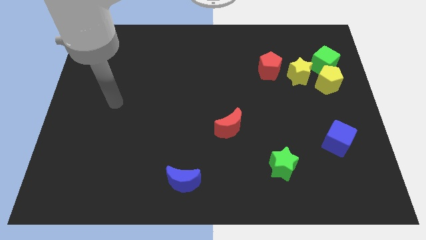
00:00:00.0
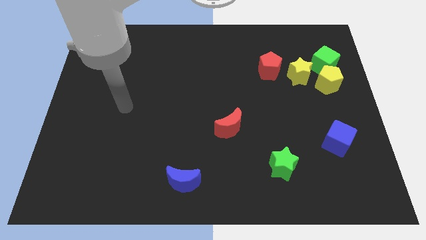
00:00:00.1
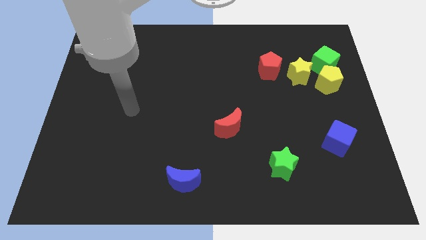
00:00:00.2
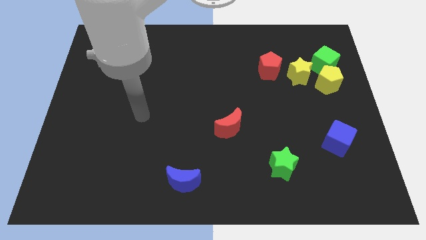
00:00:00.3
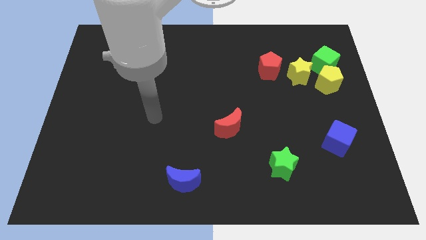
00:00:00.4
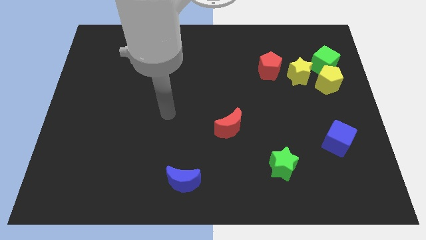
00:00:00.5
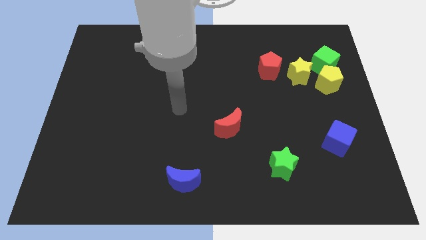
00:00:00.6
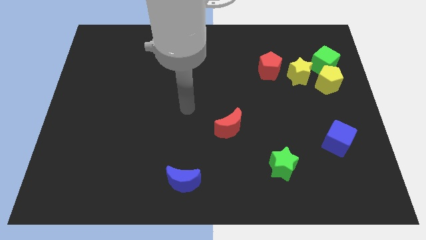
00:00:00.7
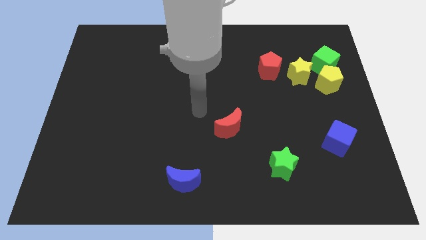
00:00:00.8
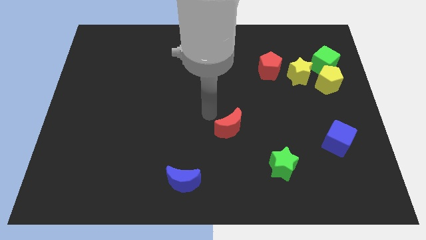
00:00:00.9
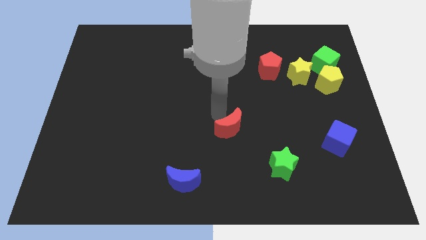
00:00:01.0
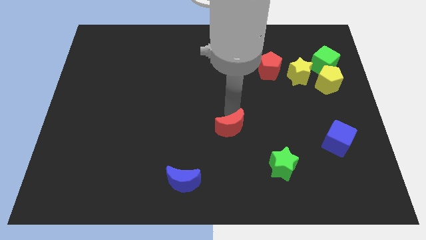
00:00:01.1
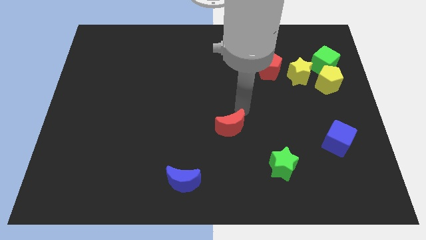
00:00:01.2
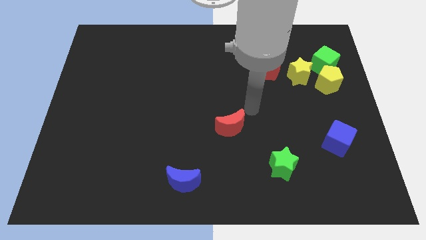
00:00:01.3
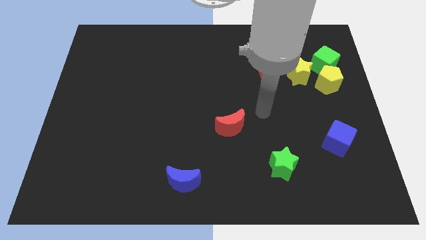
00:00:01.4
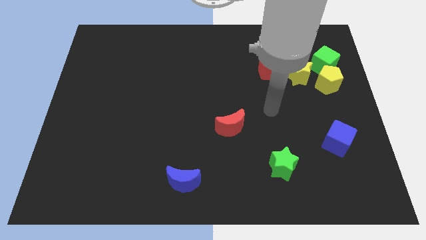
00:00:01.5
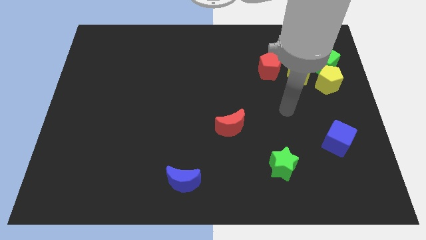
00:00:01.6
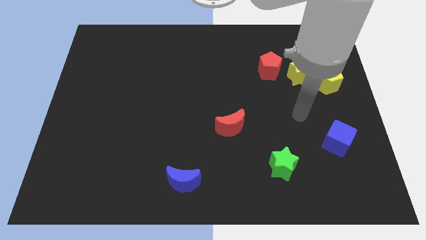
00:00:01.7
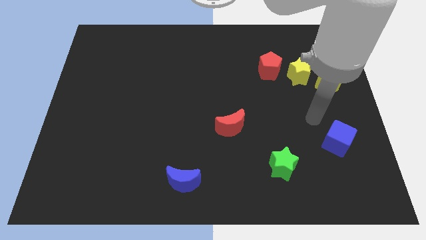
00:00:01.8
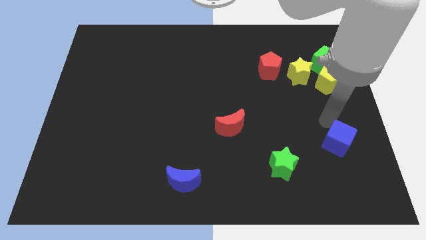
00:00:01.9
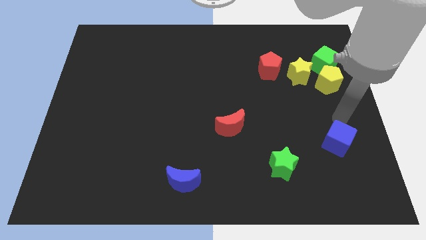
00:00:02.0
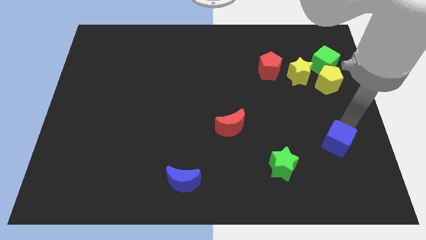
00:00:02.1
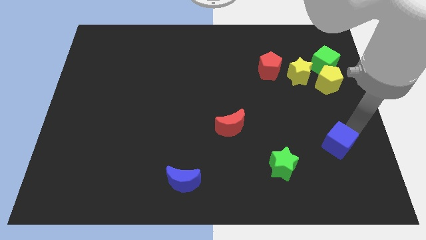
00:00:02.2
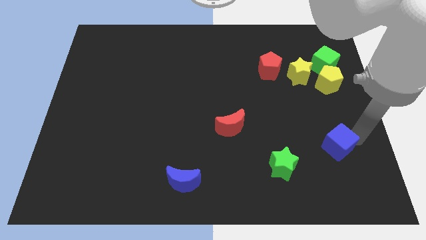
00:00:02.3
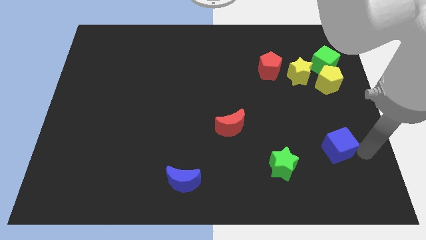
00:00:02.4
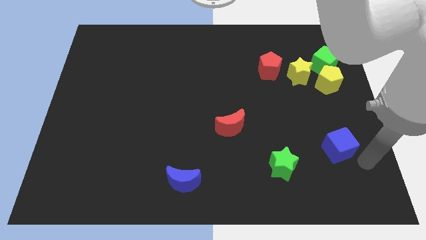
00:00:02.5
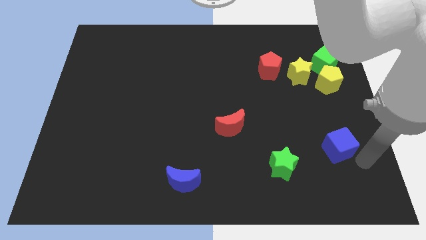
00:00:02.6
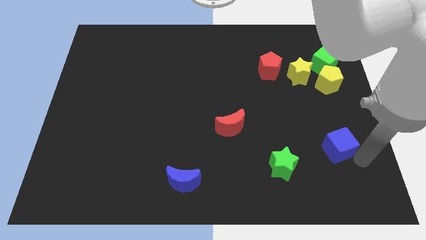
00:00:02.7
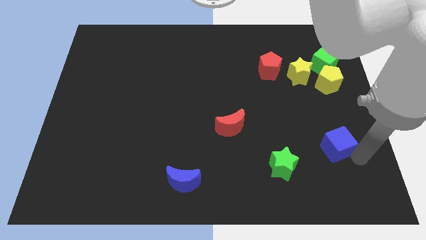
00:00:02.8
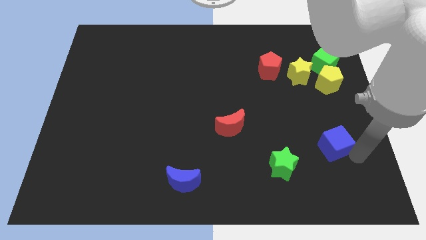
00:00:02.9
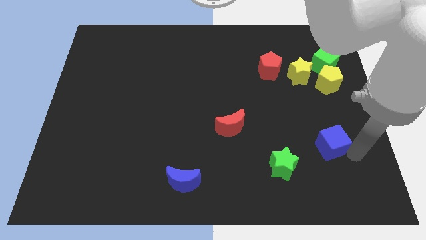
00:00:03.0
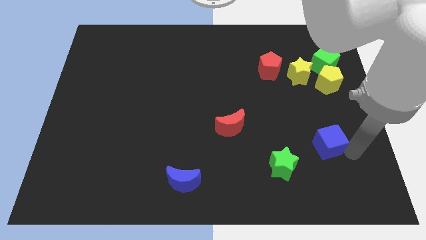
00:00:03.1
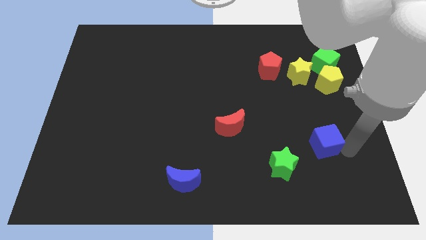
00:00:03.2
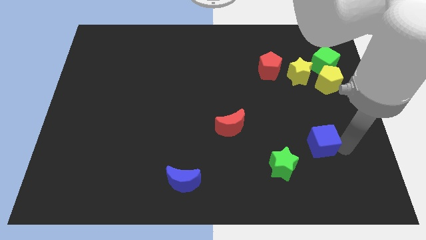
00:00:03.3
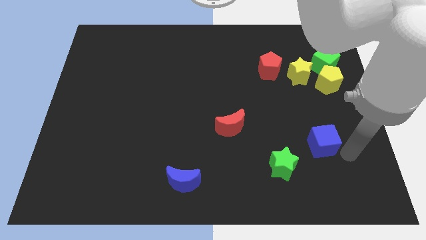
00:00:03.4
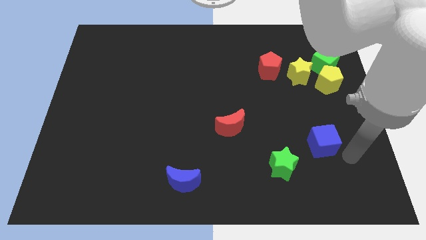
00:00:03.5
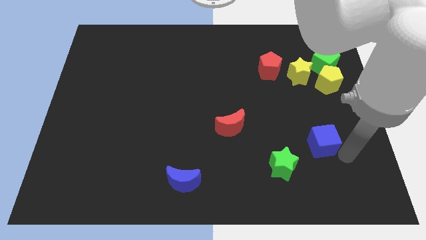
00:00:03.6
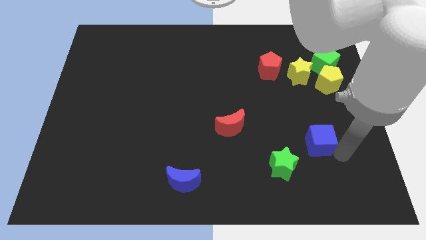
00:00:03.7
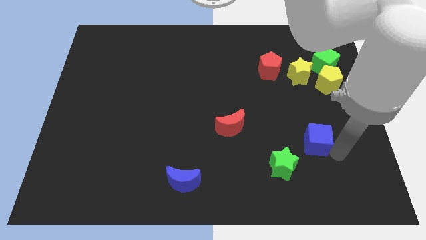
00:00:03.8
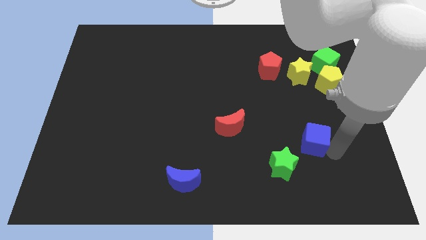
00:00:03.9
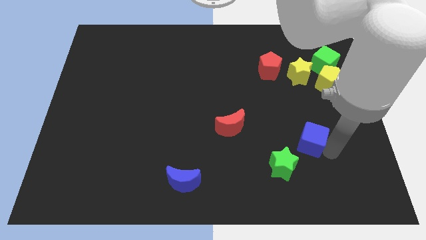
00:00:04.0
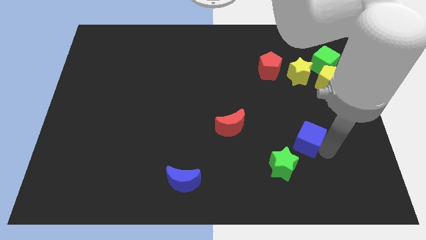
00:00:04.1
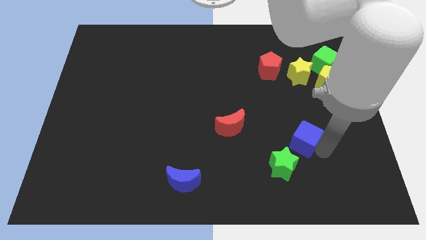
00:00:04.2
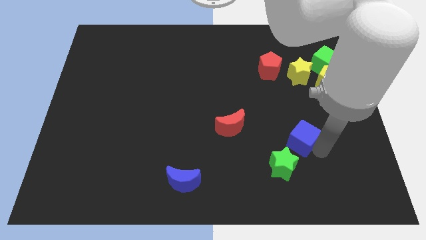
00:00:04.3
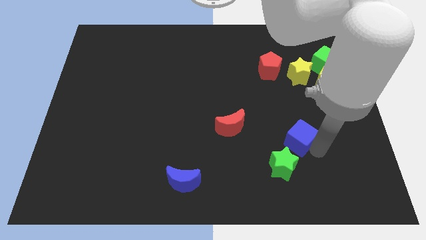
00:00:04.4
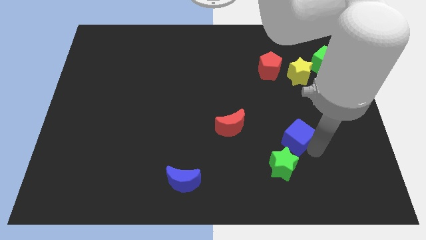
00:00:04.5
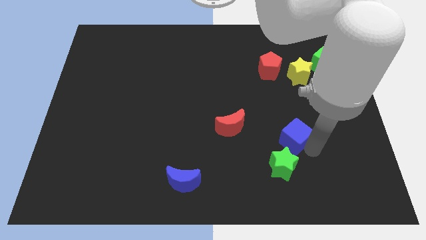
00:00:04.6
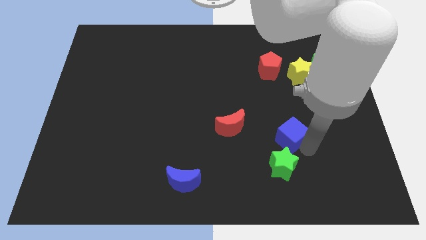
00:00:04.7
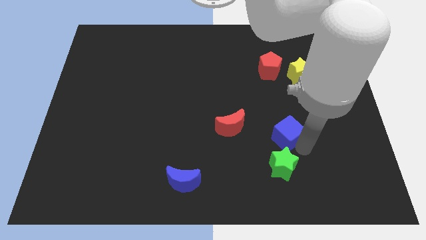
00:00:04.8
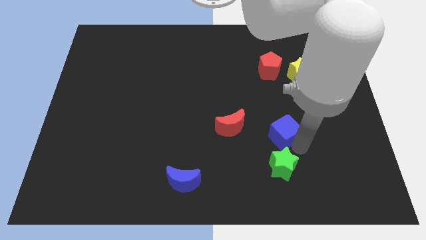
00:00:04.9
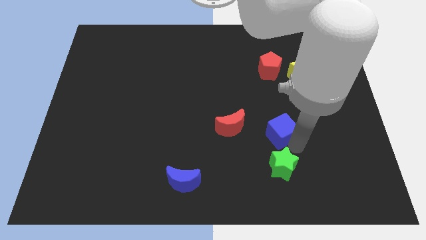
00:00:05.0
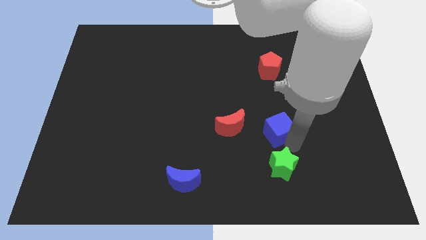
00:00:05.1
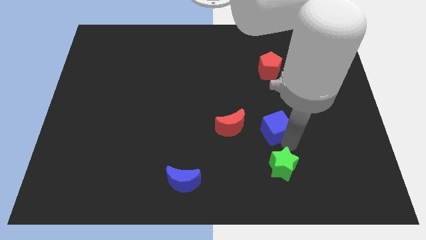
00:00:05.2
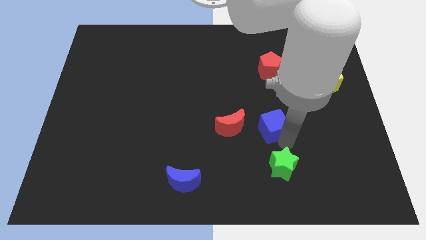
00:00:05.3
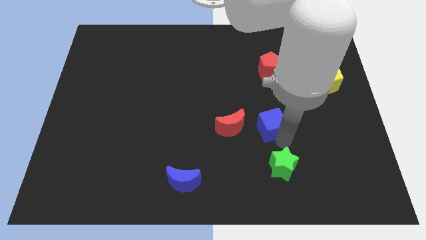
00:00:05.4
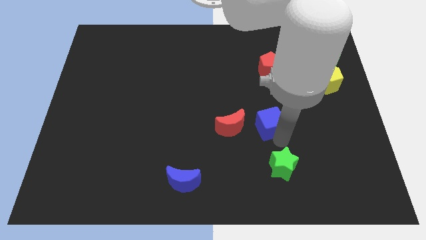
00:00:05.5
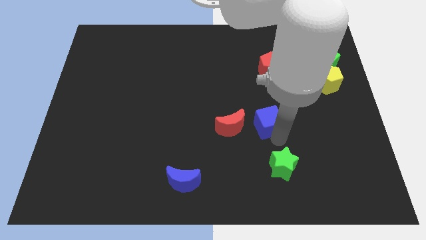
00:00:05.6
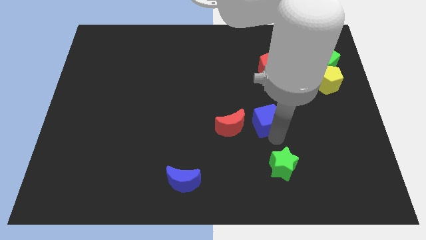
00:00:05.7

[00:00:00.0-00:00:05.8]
put the blue cube diagonally up and to the right of the red moon

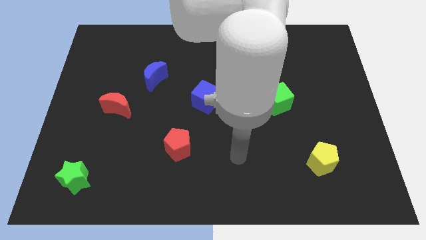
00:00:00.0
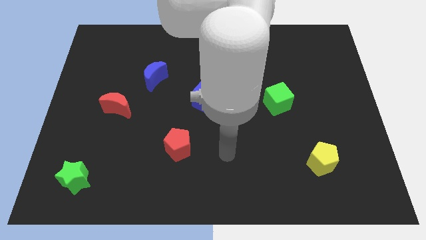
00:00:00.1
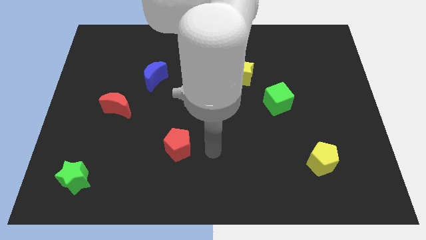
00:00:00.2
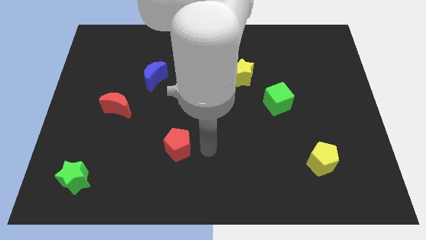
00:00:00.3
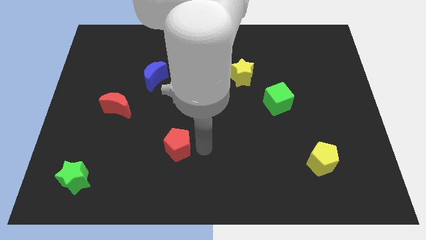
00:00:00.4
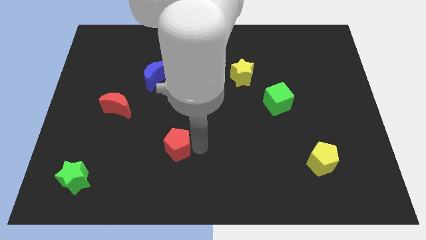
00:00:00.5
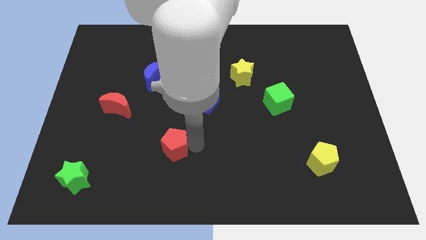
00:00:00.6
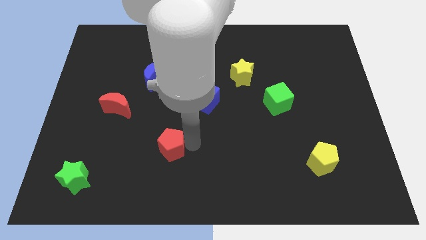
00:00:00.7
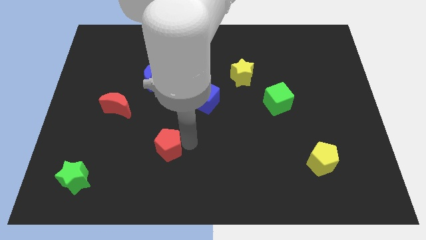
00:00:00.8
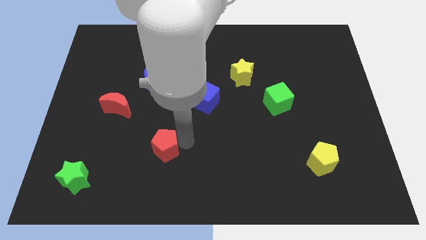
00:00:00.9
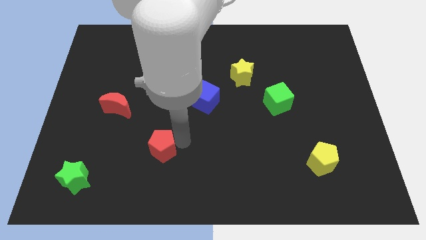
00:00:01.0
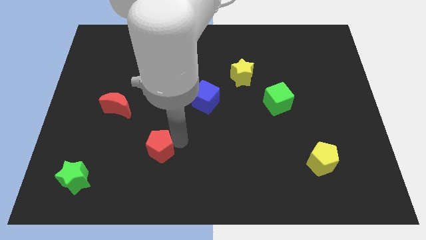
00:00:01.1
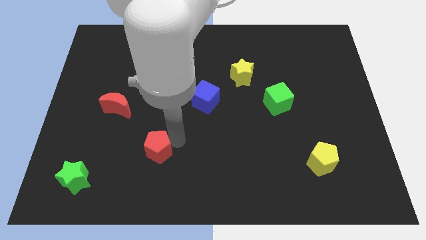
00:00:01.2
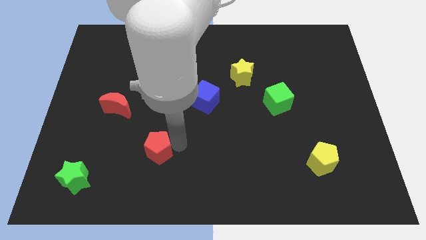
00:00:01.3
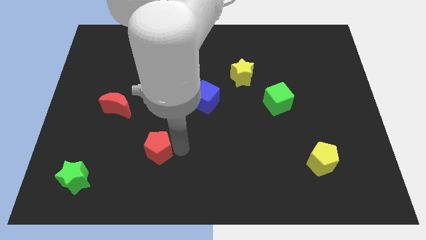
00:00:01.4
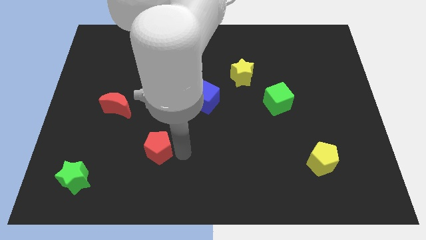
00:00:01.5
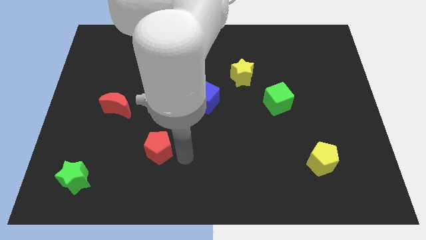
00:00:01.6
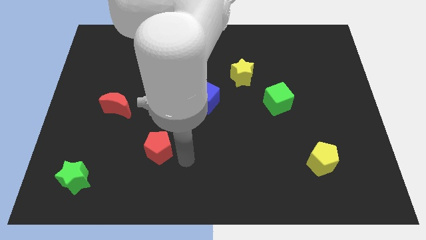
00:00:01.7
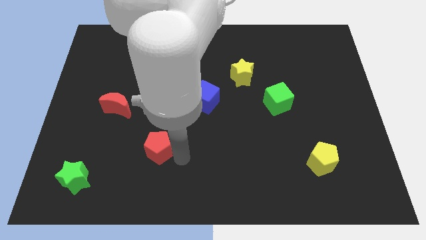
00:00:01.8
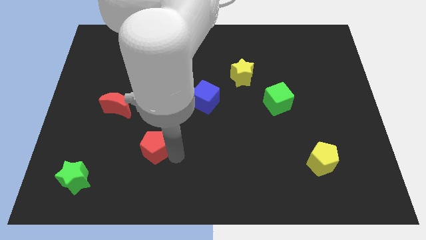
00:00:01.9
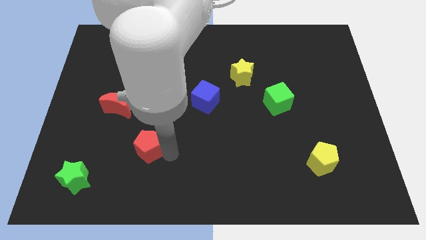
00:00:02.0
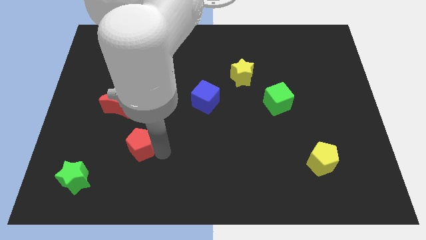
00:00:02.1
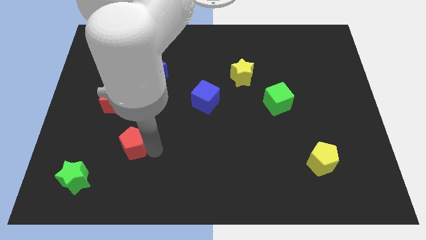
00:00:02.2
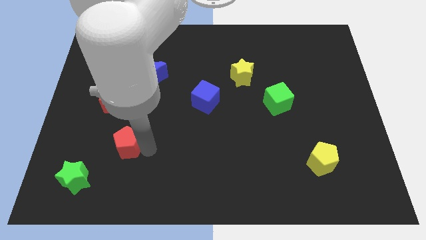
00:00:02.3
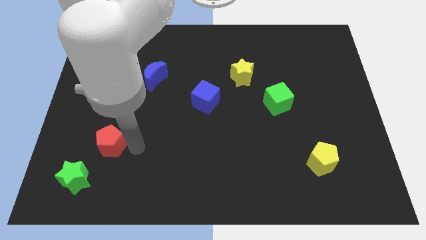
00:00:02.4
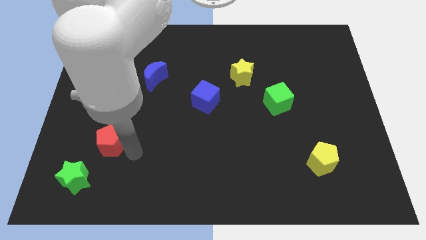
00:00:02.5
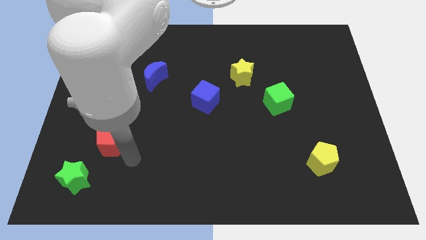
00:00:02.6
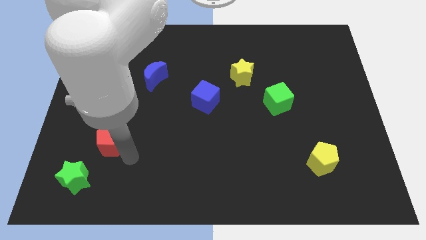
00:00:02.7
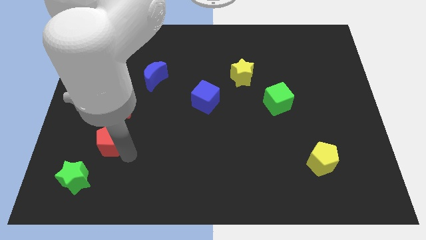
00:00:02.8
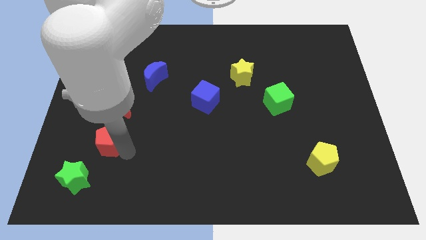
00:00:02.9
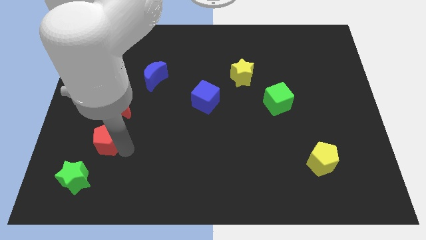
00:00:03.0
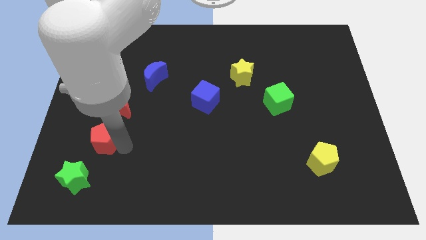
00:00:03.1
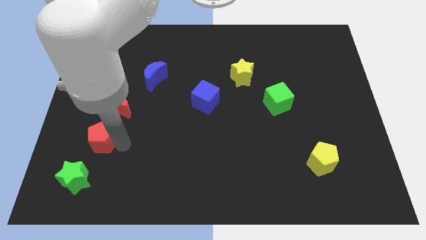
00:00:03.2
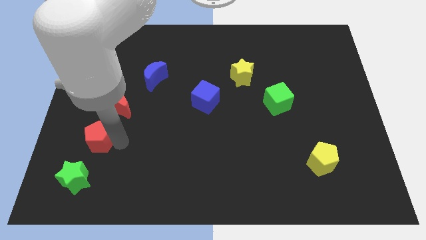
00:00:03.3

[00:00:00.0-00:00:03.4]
put the red pentagon to the bottom left of the red moon
